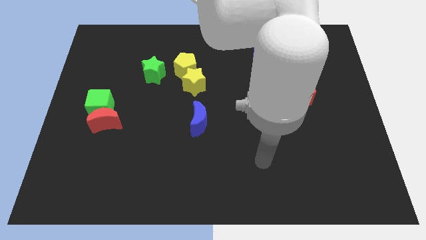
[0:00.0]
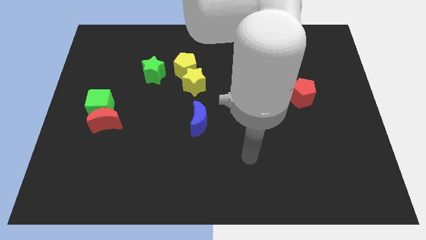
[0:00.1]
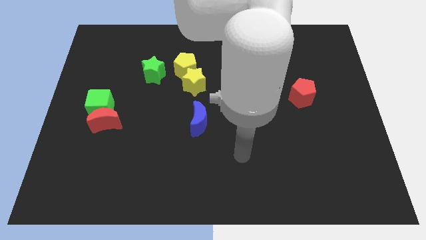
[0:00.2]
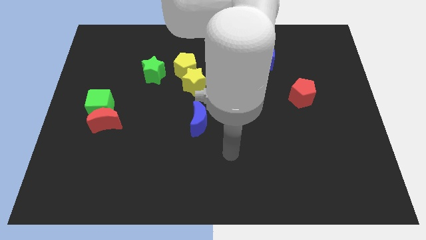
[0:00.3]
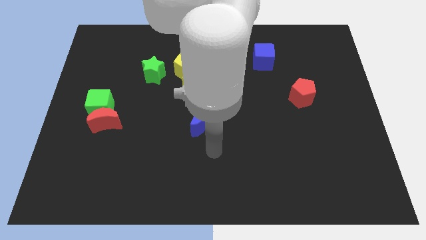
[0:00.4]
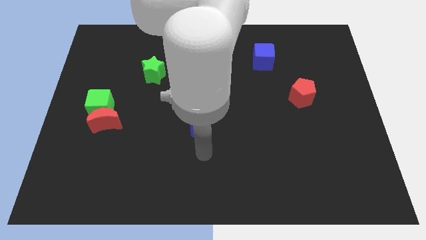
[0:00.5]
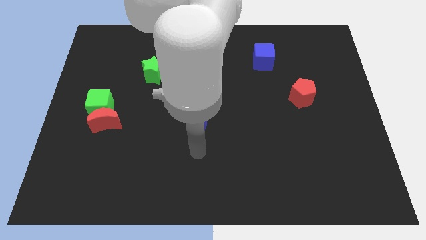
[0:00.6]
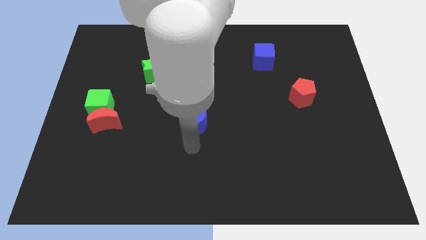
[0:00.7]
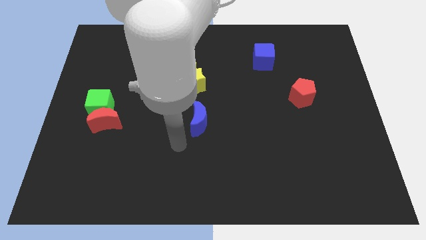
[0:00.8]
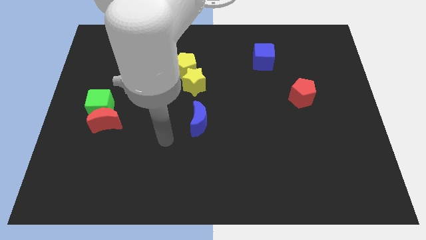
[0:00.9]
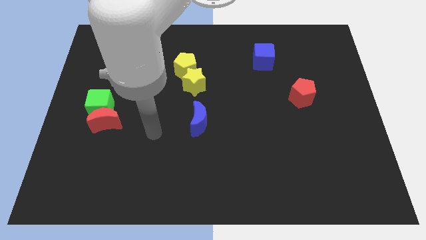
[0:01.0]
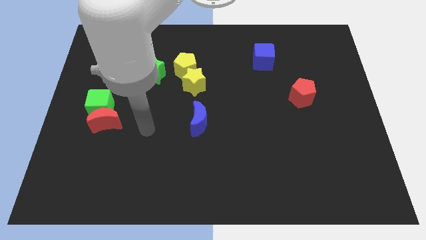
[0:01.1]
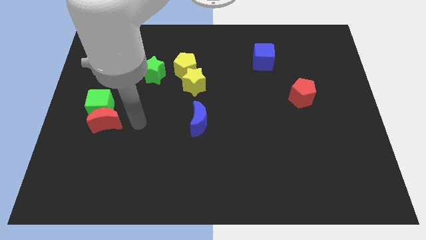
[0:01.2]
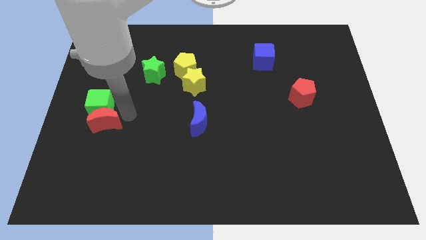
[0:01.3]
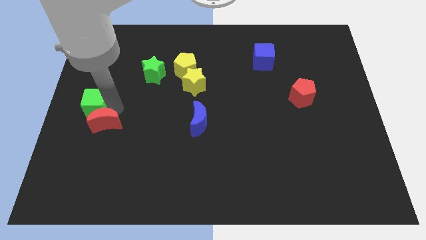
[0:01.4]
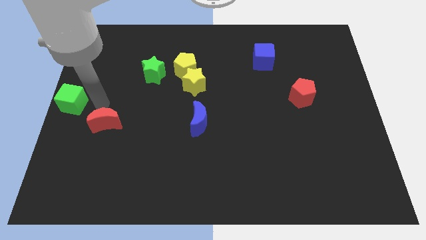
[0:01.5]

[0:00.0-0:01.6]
pull the red moon apart from the green cube

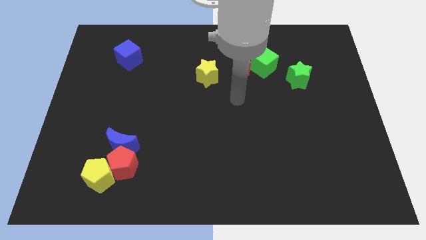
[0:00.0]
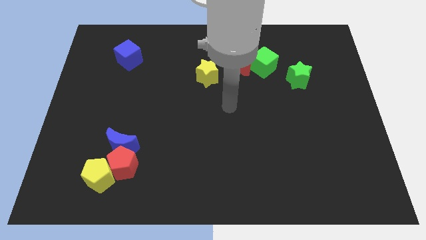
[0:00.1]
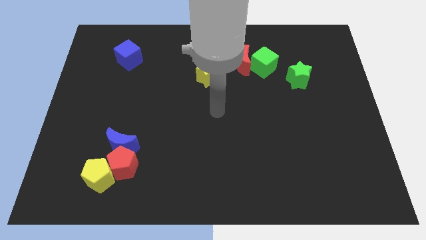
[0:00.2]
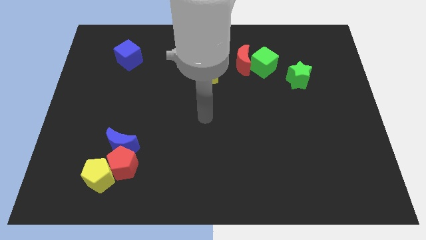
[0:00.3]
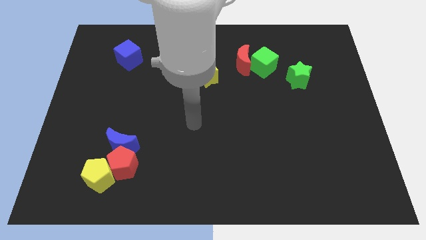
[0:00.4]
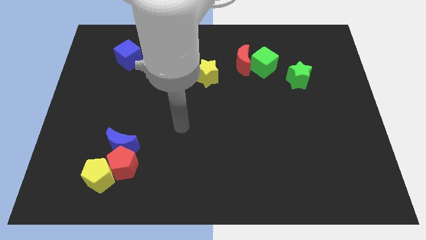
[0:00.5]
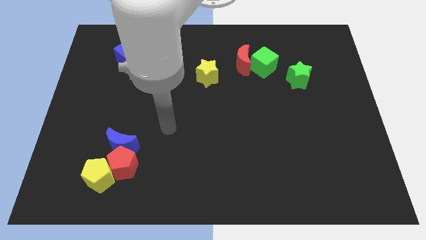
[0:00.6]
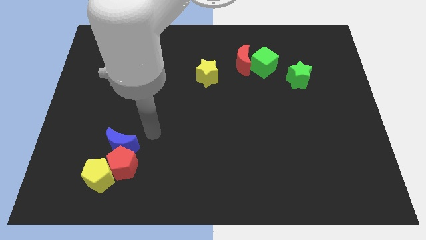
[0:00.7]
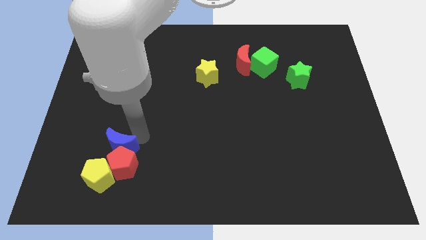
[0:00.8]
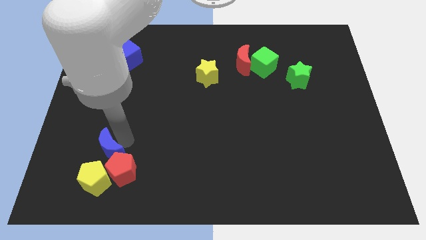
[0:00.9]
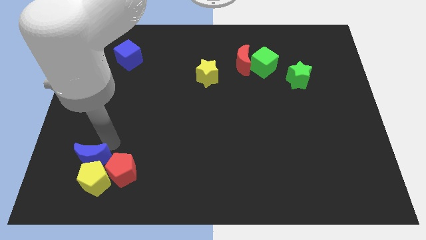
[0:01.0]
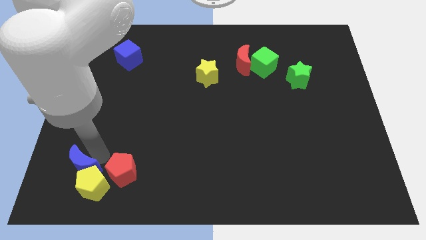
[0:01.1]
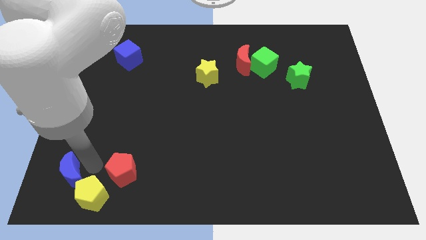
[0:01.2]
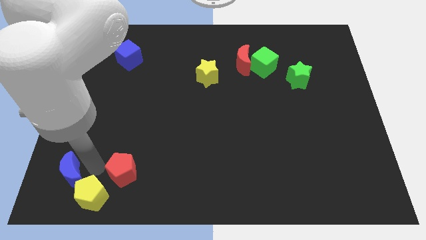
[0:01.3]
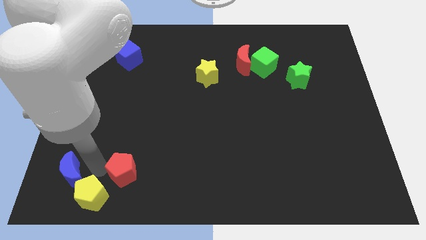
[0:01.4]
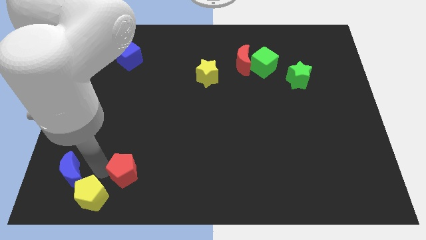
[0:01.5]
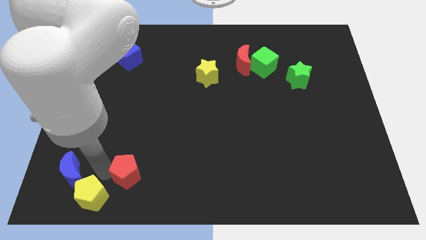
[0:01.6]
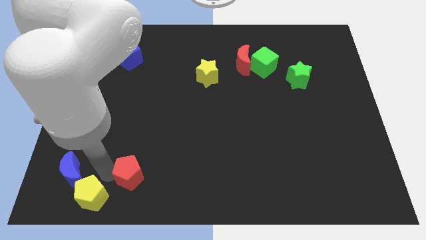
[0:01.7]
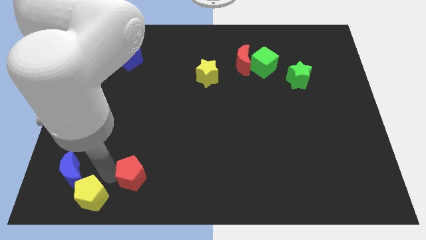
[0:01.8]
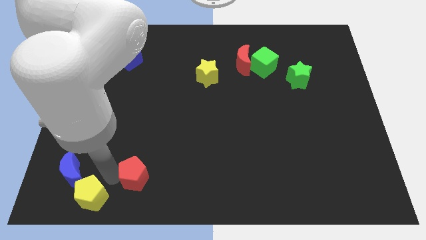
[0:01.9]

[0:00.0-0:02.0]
separate the red pentagon from the blue moon and yellow pentagon

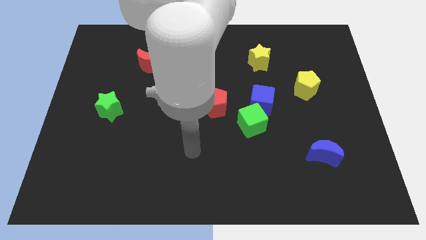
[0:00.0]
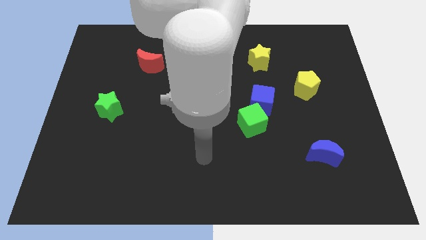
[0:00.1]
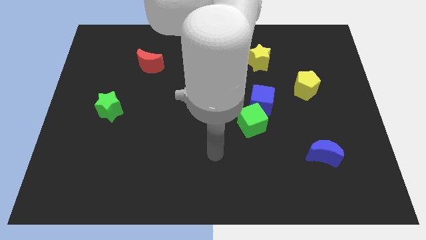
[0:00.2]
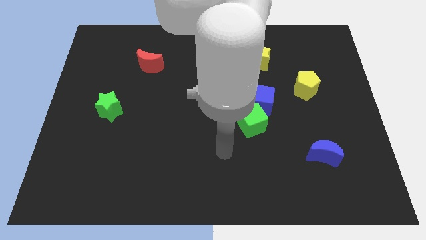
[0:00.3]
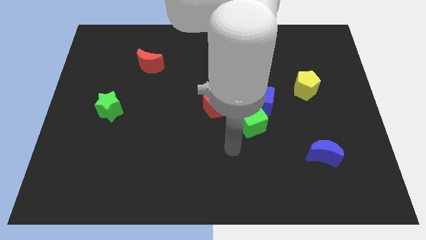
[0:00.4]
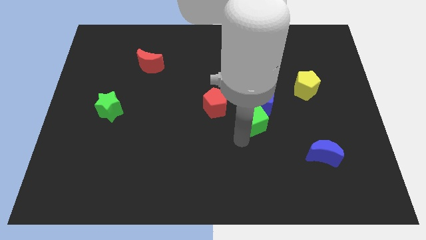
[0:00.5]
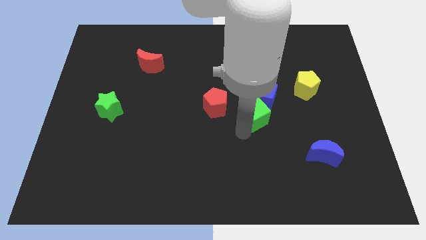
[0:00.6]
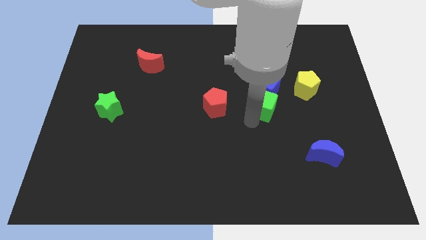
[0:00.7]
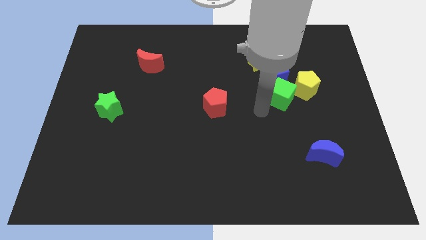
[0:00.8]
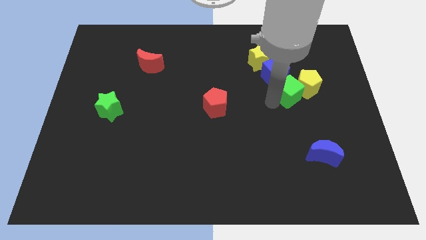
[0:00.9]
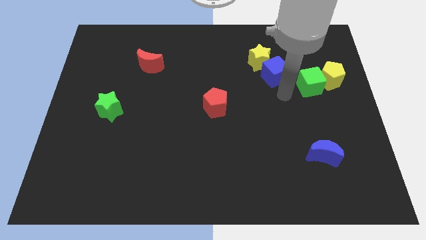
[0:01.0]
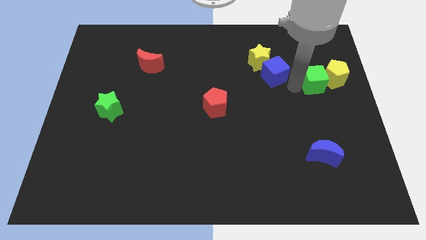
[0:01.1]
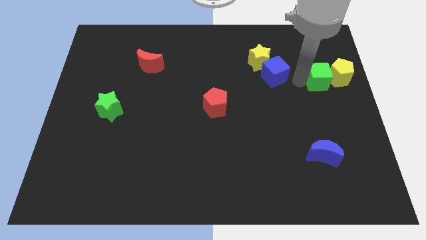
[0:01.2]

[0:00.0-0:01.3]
pull the blue cube apart from the green cube

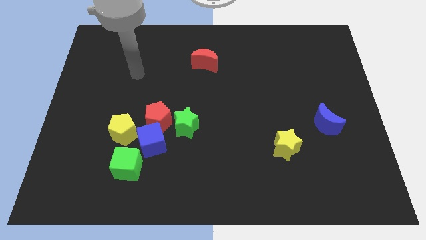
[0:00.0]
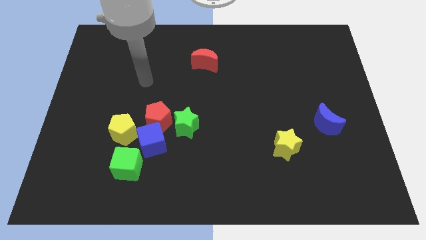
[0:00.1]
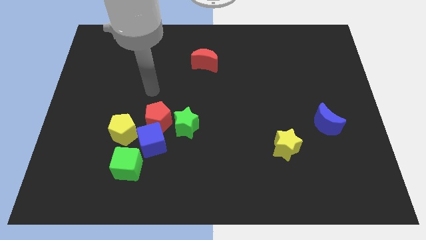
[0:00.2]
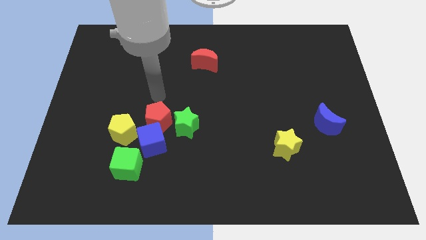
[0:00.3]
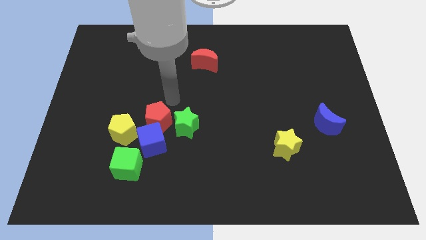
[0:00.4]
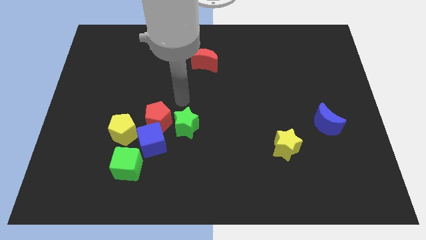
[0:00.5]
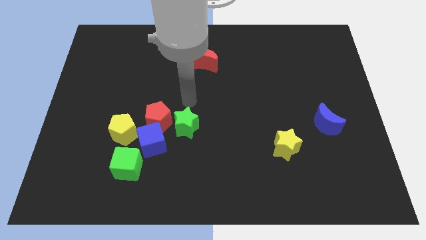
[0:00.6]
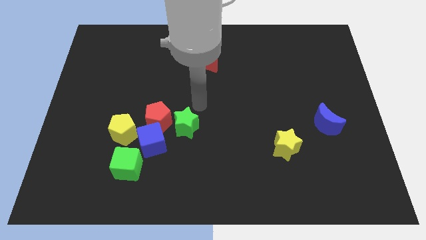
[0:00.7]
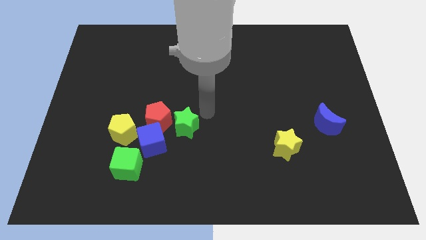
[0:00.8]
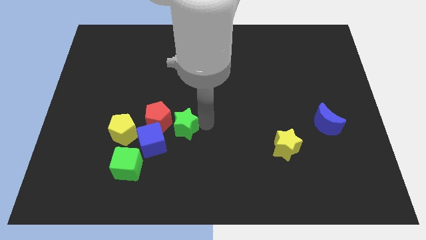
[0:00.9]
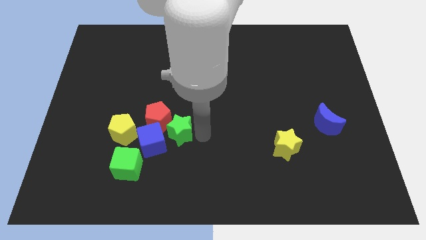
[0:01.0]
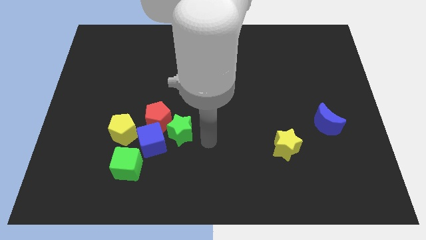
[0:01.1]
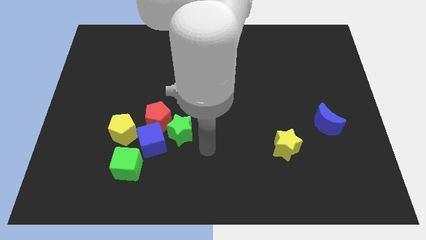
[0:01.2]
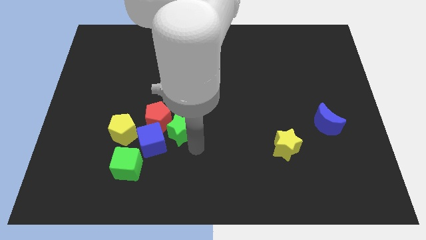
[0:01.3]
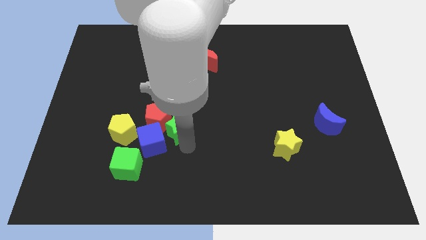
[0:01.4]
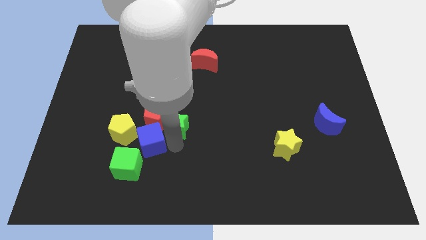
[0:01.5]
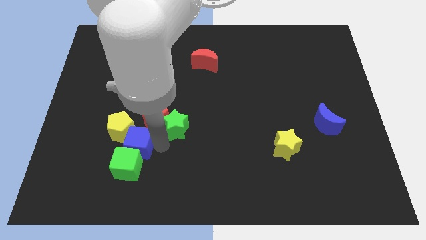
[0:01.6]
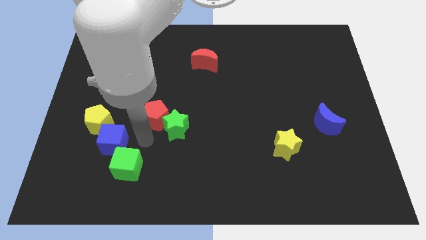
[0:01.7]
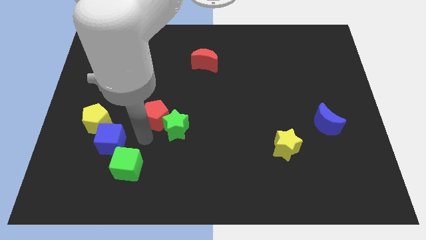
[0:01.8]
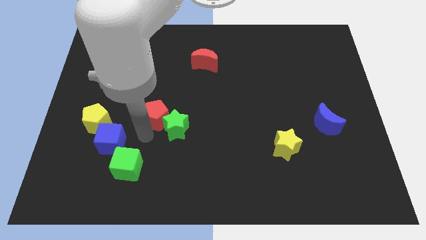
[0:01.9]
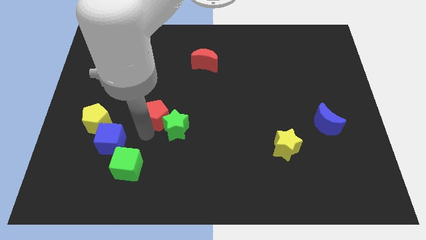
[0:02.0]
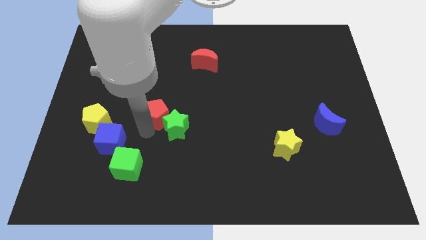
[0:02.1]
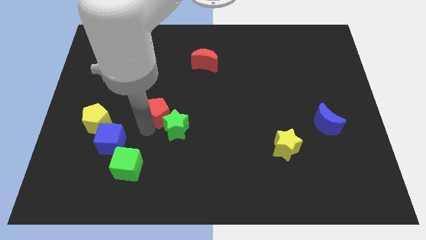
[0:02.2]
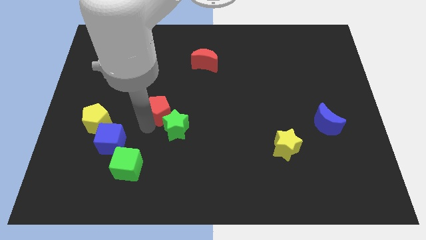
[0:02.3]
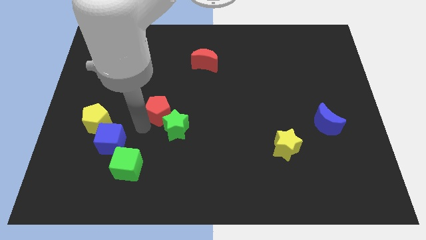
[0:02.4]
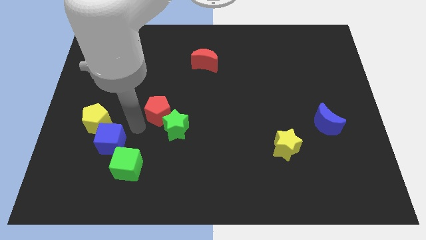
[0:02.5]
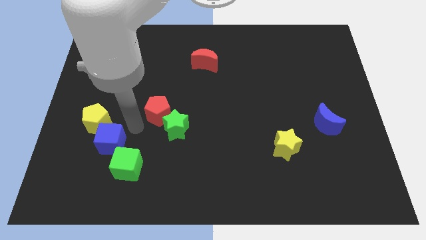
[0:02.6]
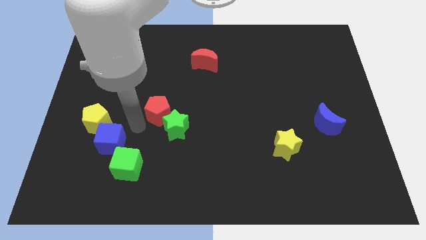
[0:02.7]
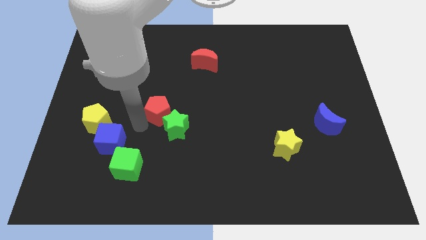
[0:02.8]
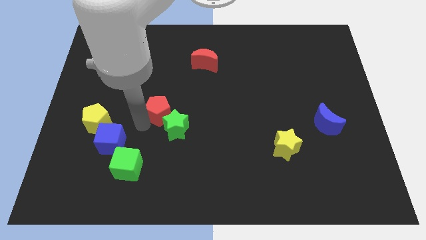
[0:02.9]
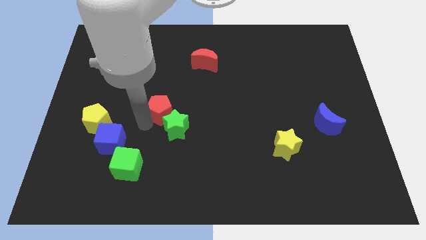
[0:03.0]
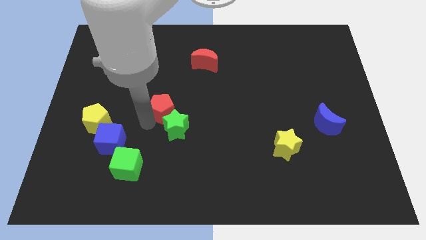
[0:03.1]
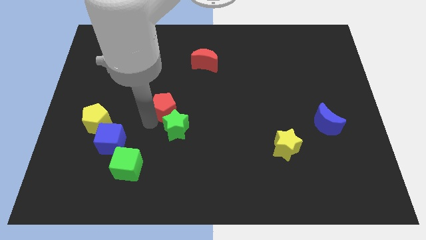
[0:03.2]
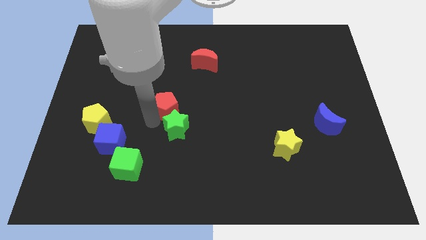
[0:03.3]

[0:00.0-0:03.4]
move the red pentagon away from the group

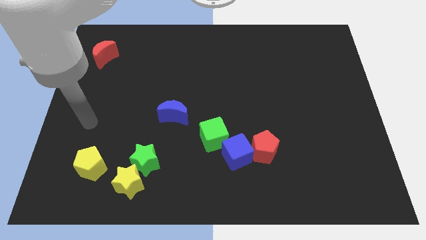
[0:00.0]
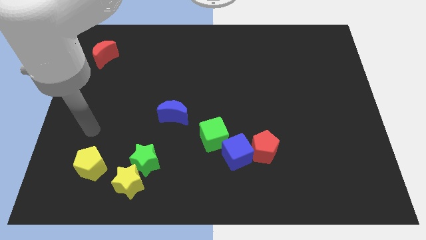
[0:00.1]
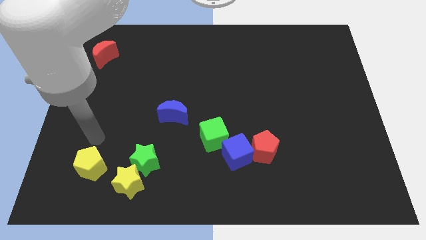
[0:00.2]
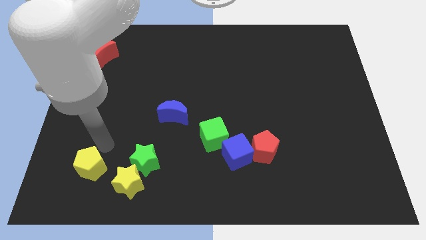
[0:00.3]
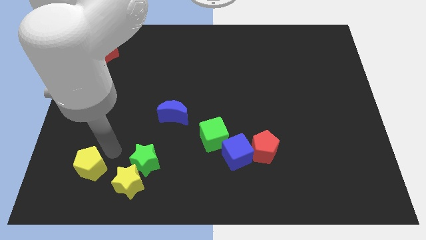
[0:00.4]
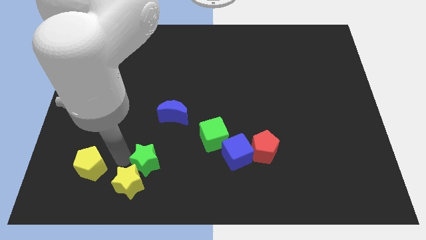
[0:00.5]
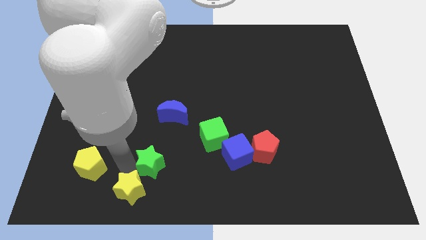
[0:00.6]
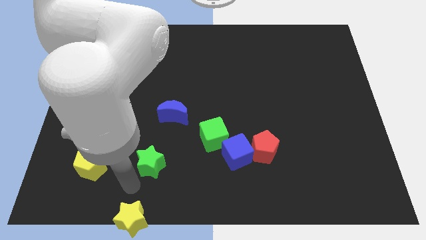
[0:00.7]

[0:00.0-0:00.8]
pull the green star apart from the yellow star

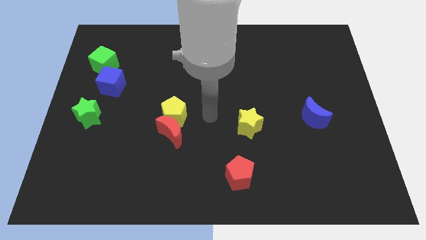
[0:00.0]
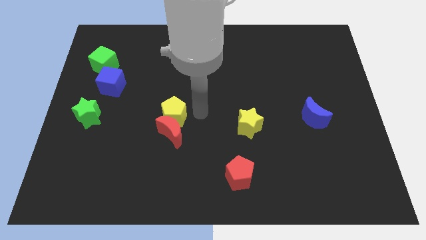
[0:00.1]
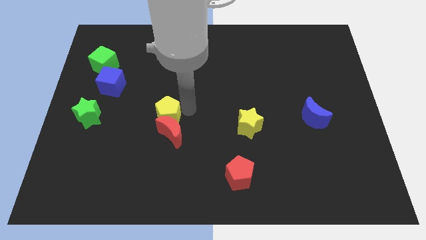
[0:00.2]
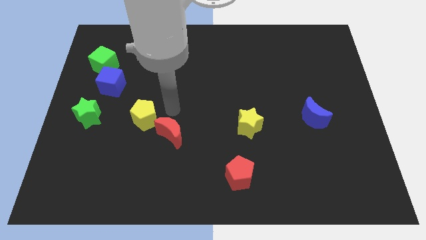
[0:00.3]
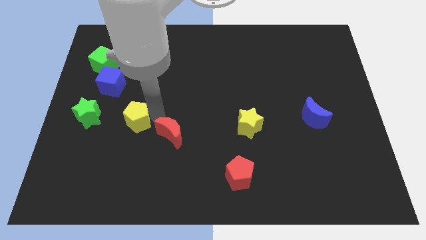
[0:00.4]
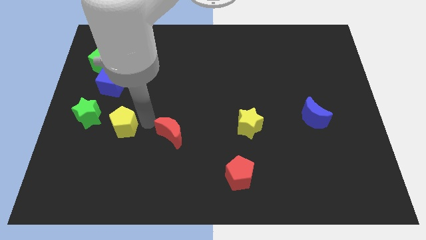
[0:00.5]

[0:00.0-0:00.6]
separate the red moon from the yellow pentagon
